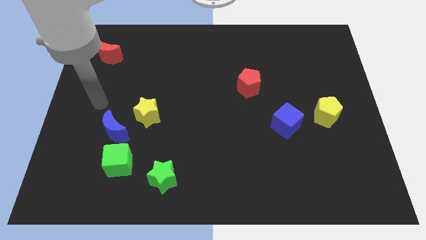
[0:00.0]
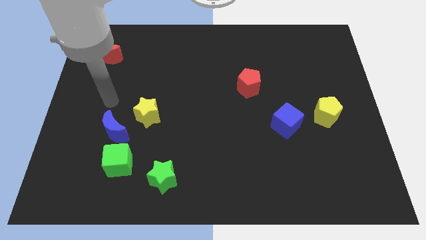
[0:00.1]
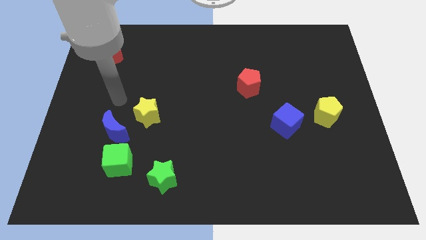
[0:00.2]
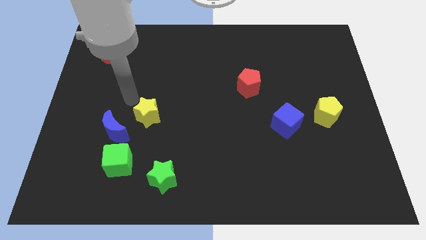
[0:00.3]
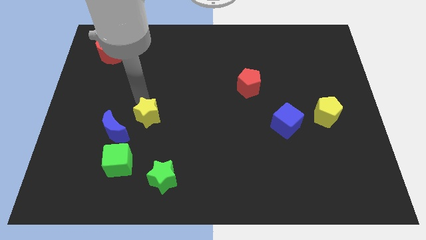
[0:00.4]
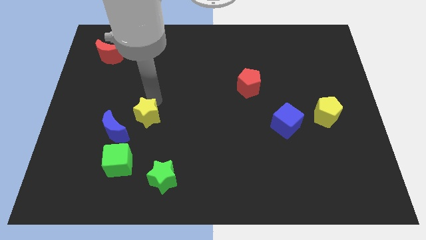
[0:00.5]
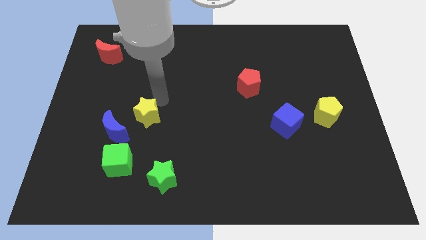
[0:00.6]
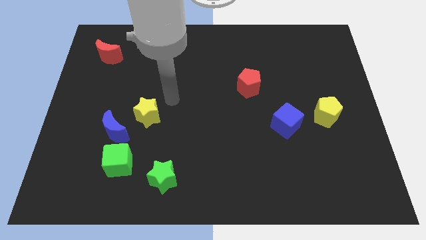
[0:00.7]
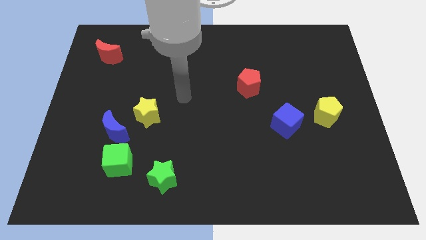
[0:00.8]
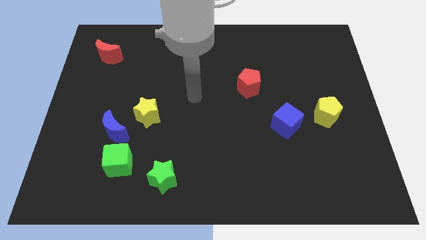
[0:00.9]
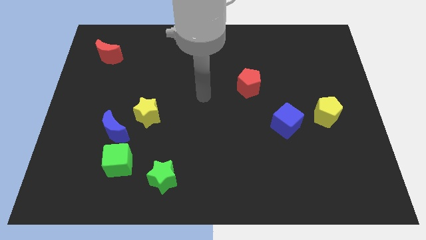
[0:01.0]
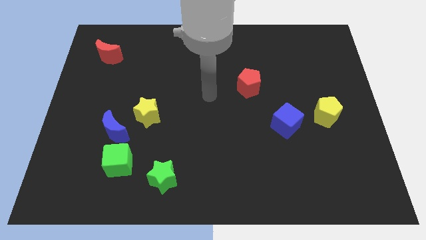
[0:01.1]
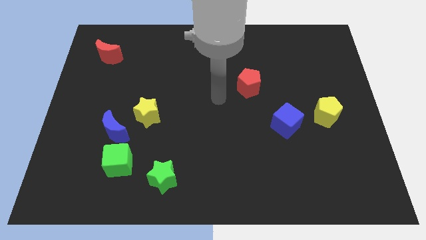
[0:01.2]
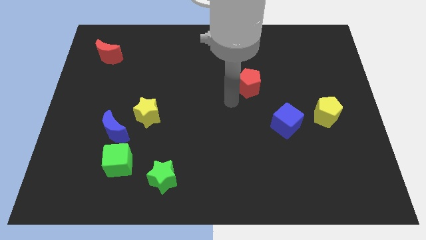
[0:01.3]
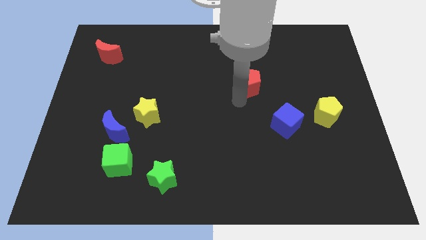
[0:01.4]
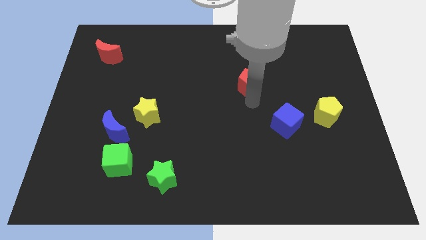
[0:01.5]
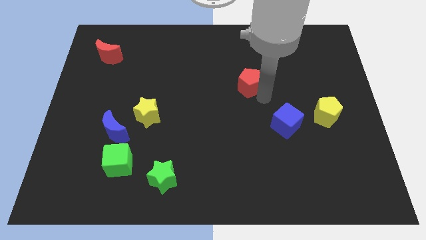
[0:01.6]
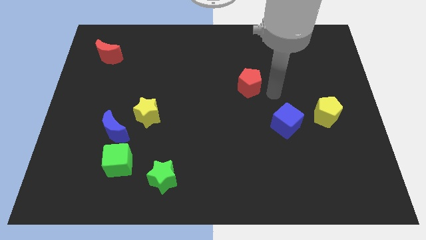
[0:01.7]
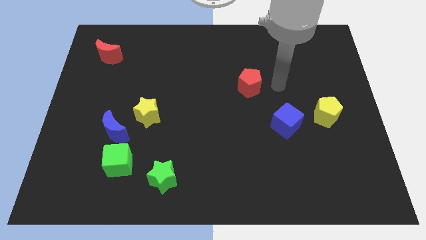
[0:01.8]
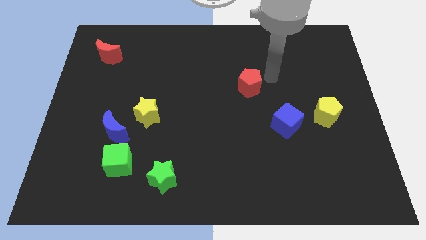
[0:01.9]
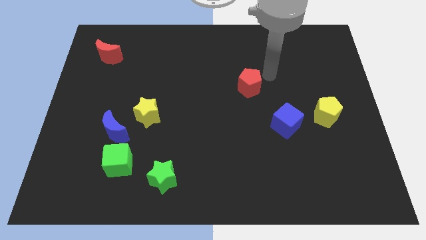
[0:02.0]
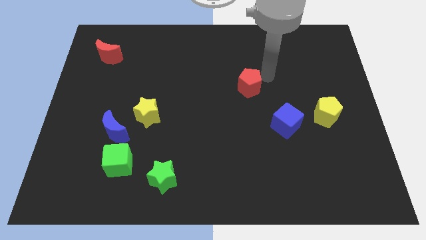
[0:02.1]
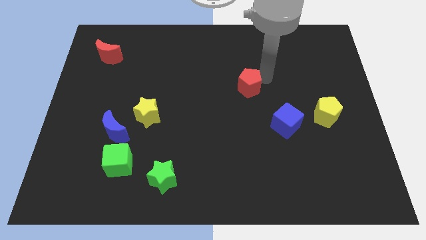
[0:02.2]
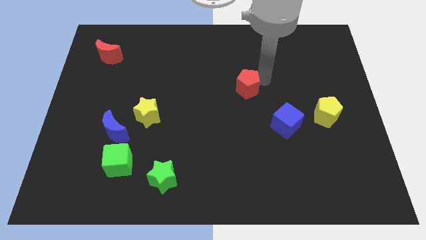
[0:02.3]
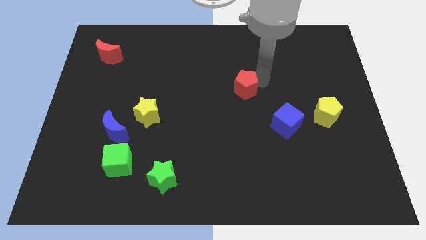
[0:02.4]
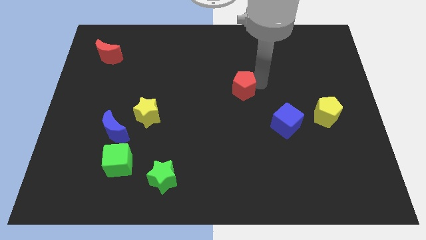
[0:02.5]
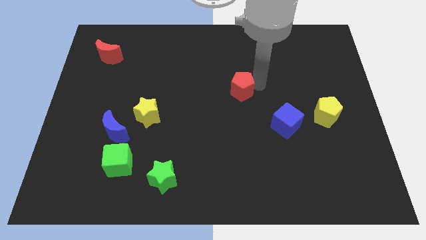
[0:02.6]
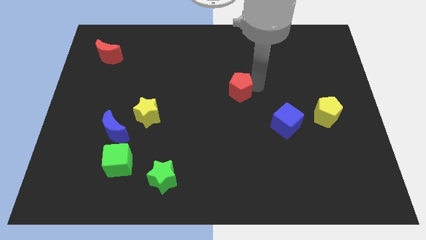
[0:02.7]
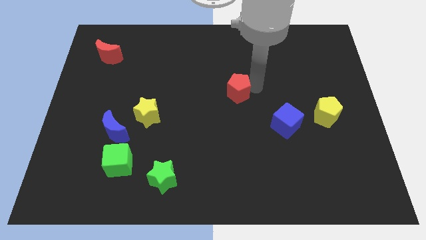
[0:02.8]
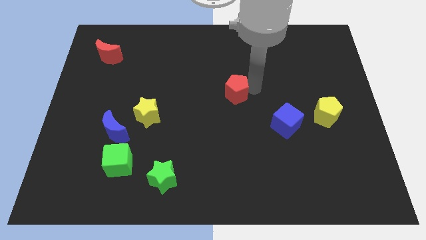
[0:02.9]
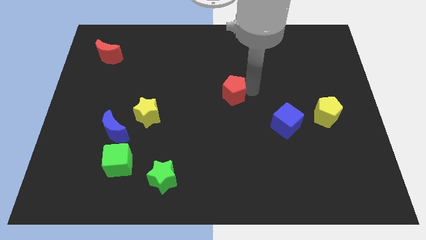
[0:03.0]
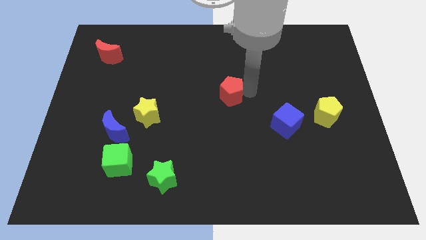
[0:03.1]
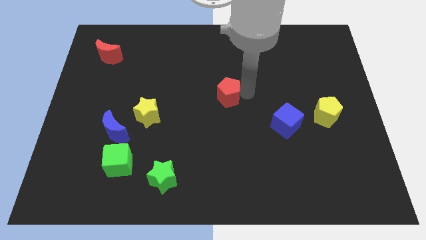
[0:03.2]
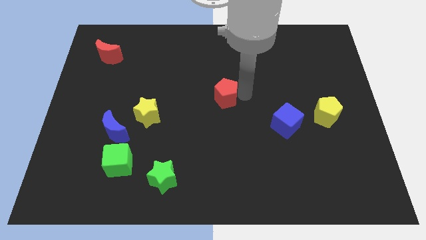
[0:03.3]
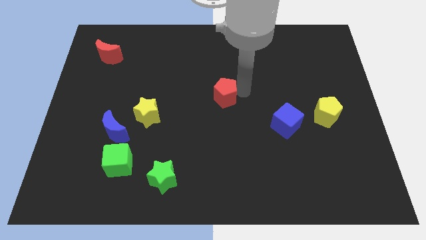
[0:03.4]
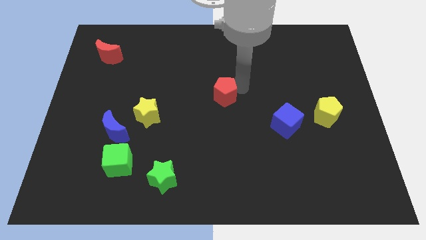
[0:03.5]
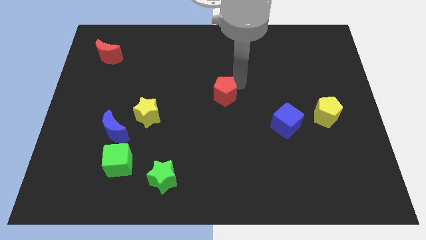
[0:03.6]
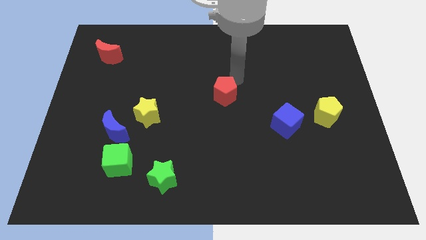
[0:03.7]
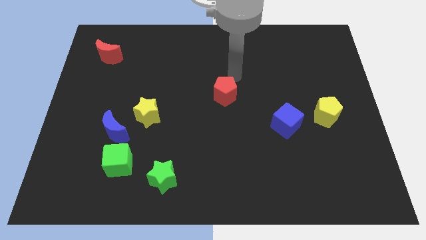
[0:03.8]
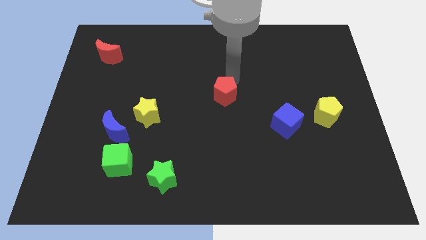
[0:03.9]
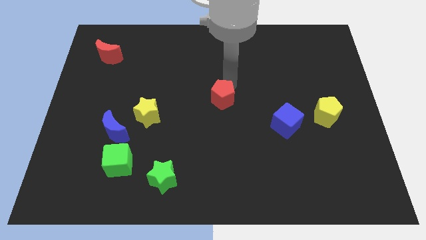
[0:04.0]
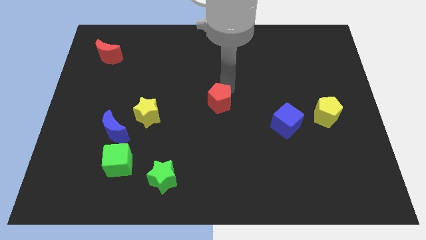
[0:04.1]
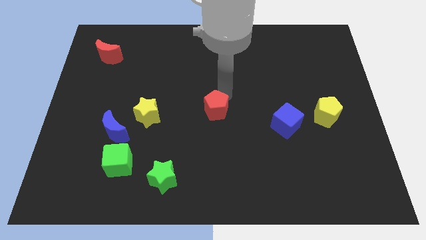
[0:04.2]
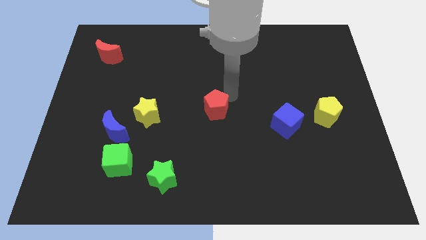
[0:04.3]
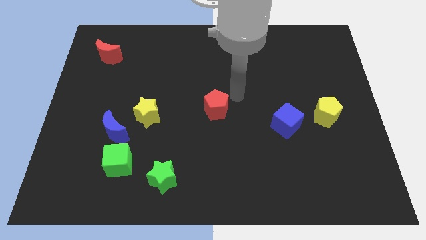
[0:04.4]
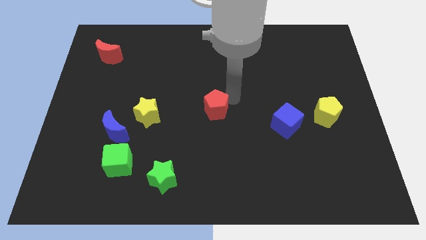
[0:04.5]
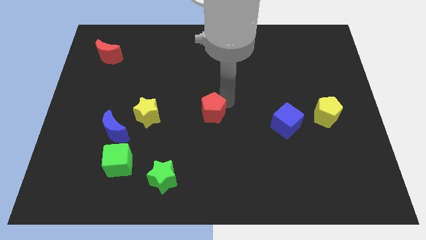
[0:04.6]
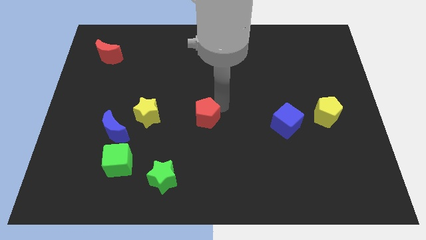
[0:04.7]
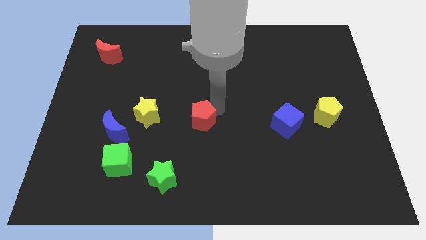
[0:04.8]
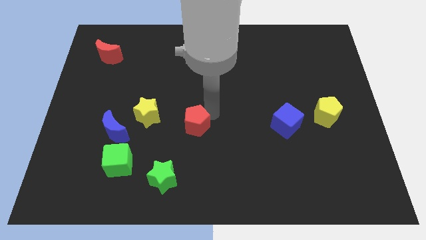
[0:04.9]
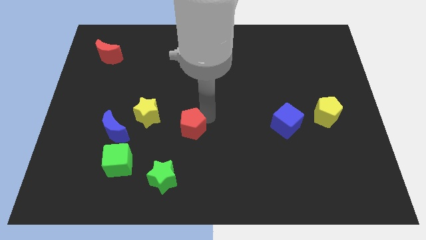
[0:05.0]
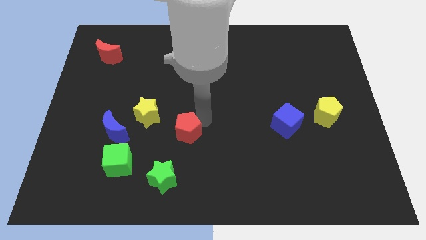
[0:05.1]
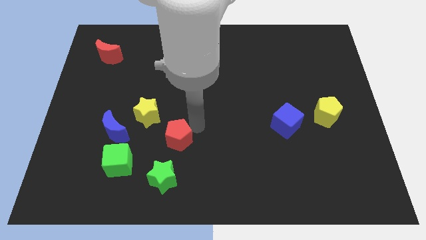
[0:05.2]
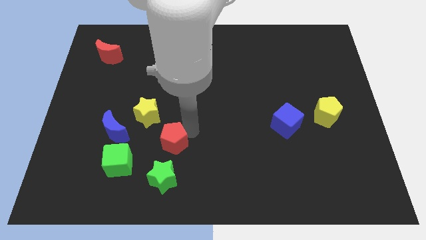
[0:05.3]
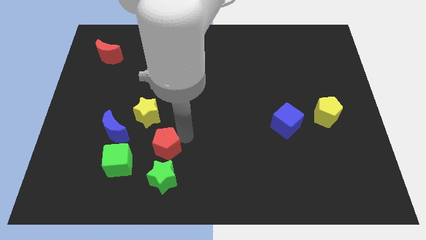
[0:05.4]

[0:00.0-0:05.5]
slide the red pentagon diagonally up and to the right of the green cube

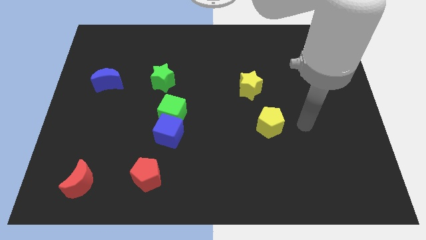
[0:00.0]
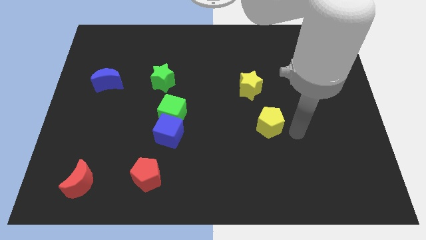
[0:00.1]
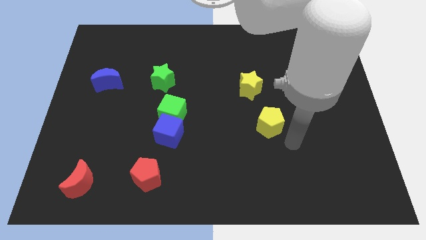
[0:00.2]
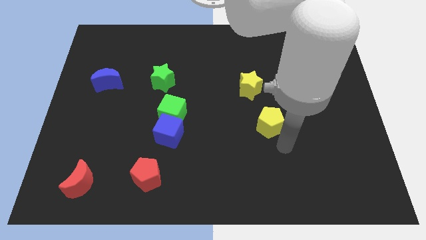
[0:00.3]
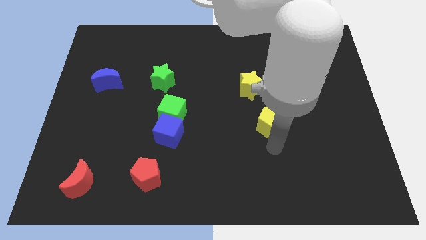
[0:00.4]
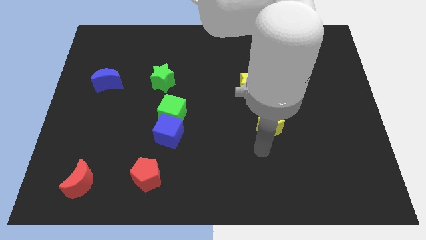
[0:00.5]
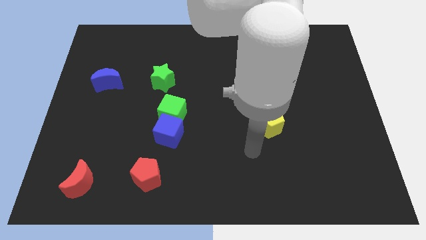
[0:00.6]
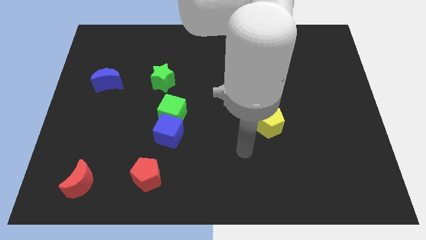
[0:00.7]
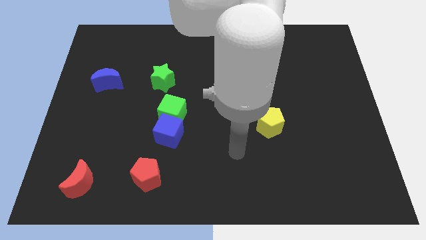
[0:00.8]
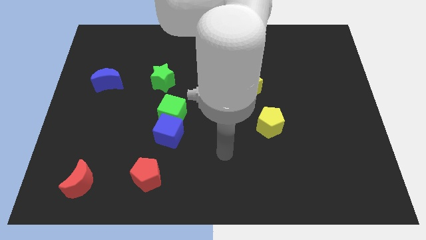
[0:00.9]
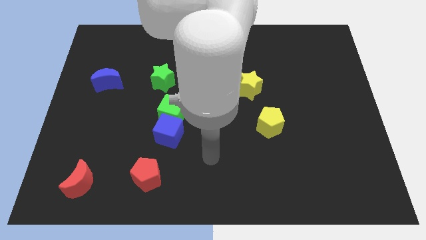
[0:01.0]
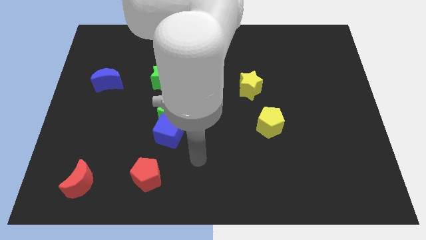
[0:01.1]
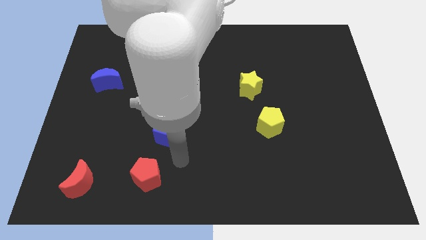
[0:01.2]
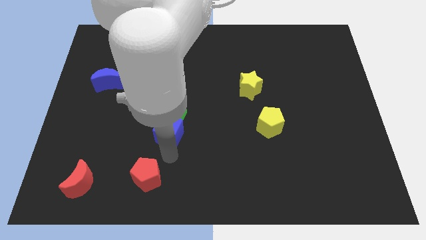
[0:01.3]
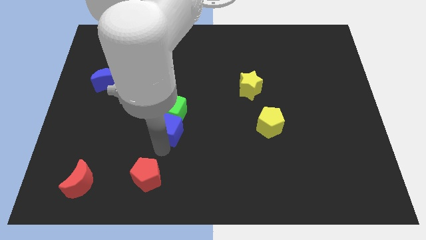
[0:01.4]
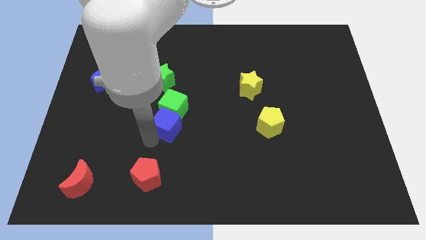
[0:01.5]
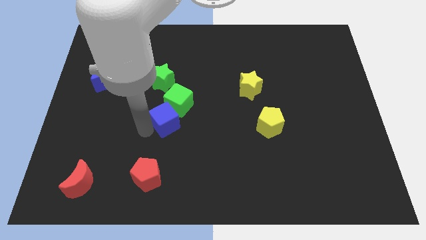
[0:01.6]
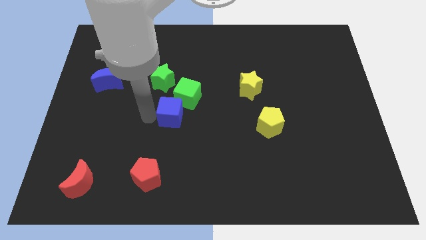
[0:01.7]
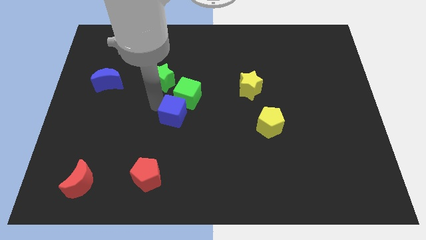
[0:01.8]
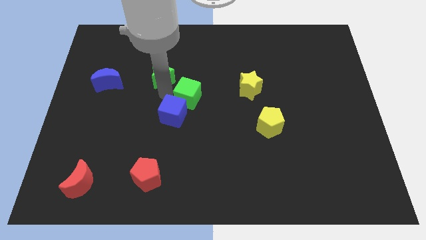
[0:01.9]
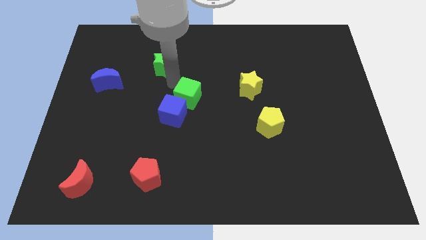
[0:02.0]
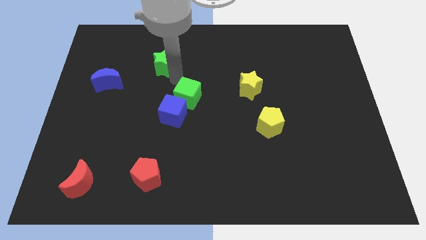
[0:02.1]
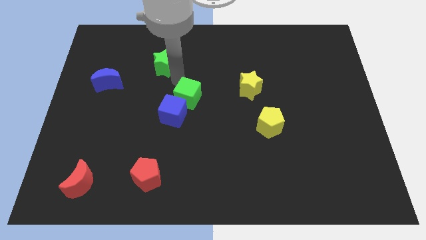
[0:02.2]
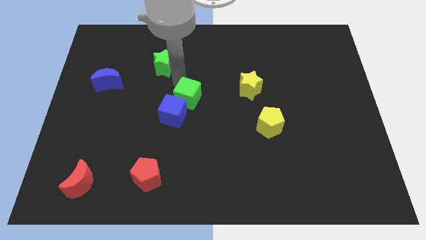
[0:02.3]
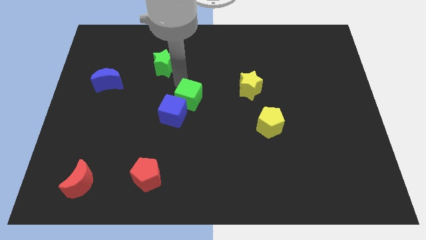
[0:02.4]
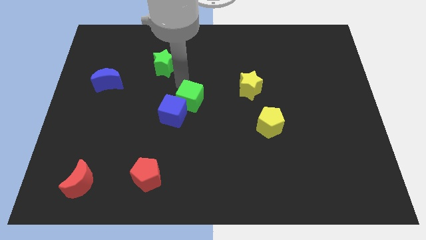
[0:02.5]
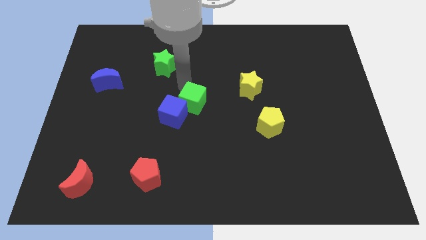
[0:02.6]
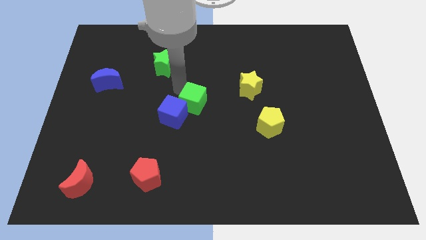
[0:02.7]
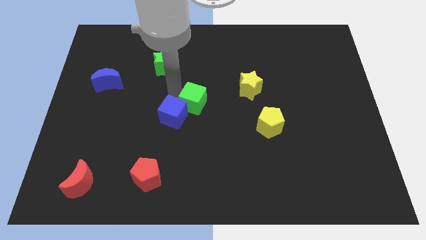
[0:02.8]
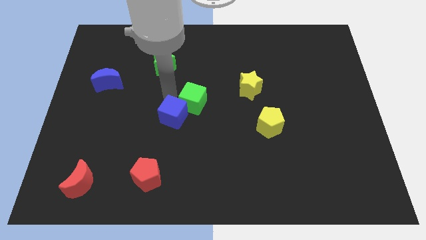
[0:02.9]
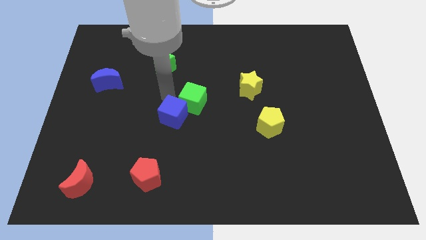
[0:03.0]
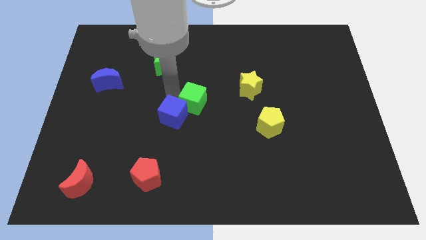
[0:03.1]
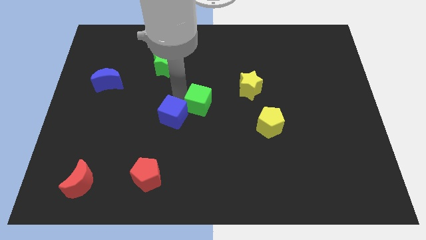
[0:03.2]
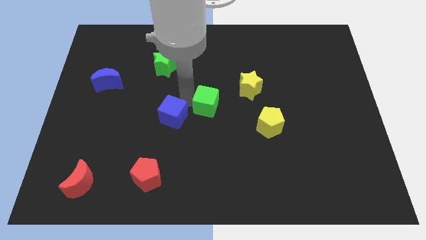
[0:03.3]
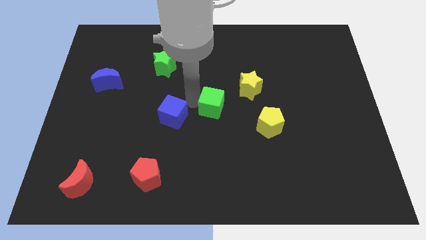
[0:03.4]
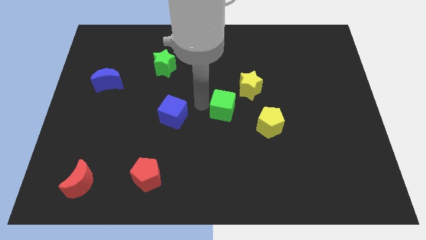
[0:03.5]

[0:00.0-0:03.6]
move the green cube to the top left side of the yellow pentagon
